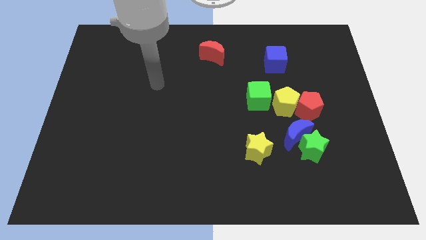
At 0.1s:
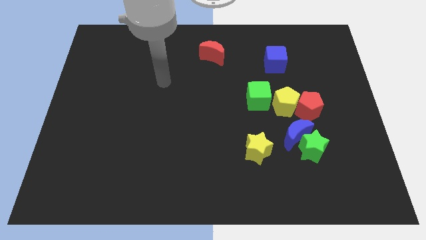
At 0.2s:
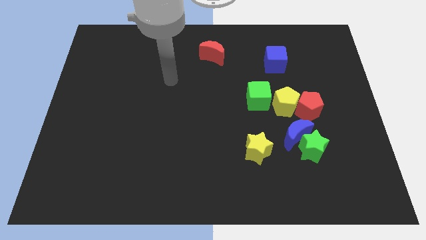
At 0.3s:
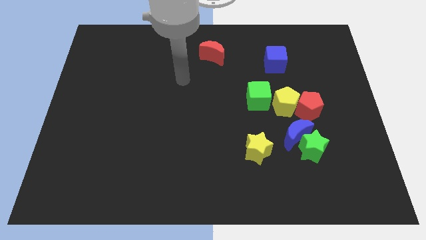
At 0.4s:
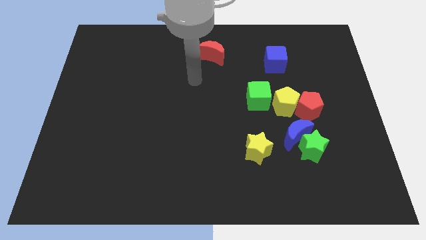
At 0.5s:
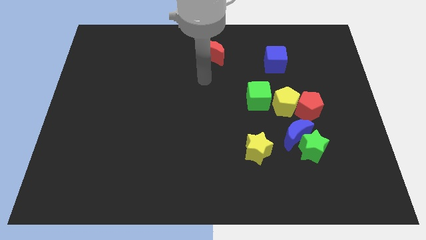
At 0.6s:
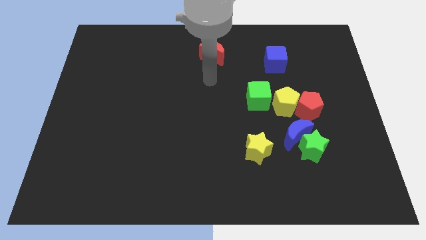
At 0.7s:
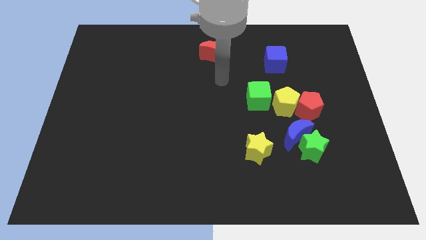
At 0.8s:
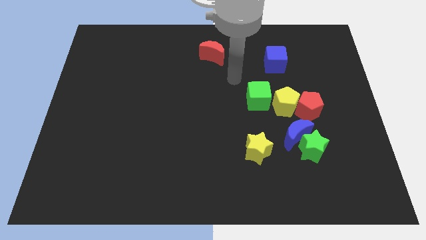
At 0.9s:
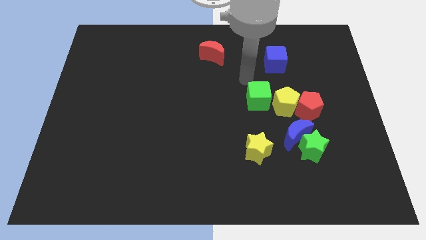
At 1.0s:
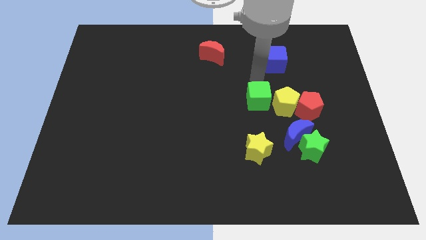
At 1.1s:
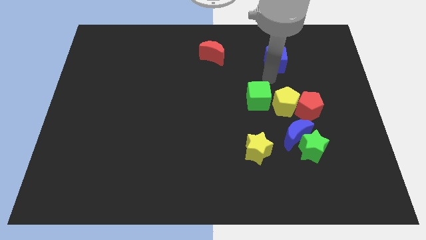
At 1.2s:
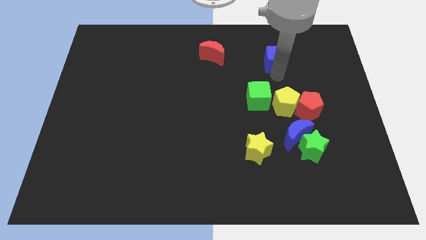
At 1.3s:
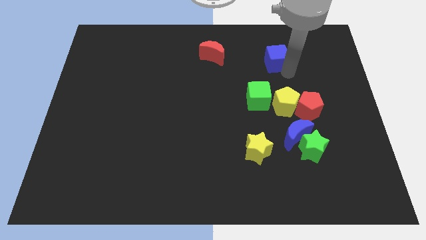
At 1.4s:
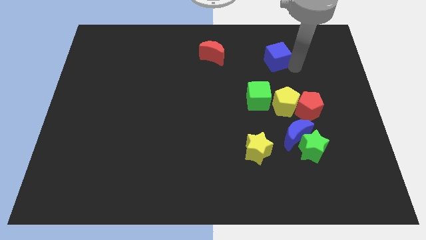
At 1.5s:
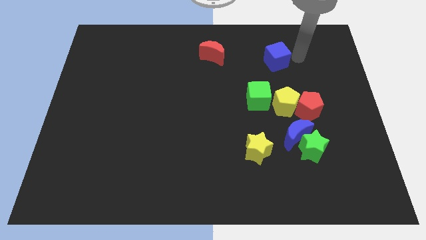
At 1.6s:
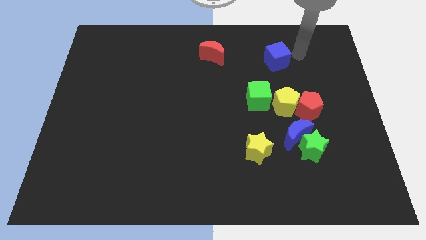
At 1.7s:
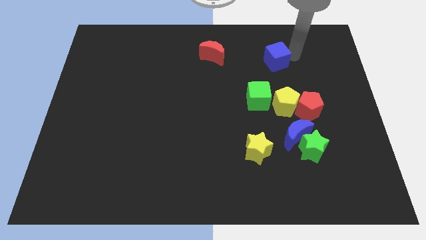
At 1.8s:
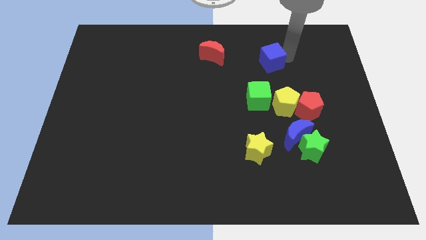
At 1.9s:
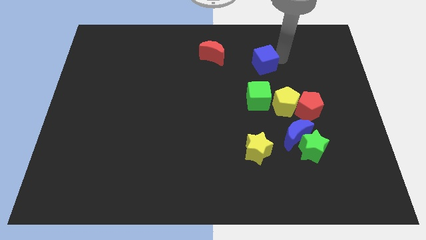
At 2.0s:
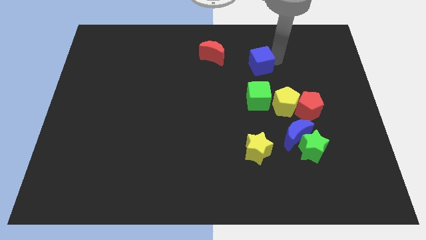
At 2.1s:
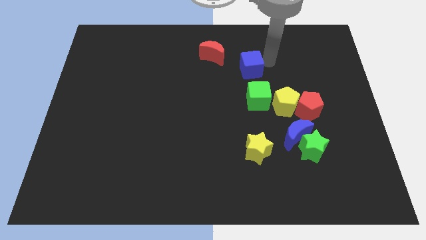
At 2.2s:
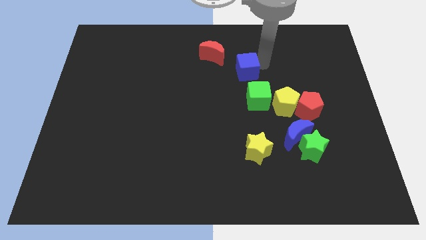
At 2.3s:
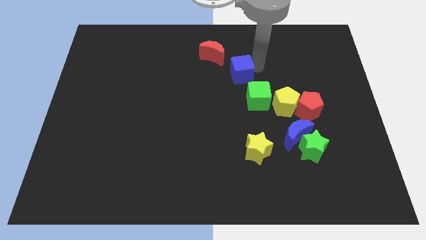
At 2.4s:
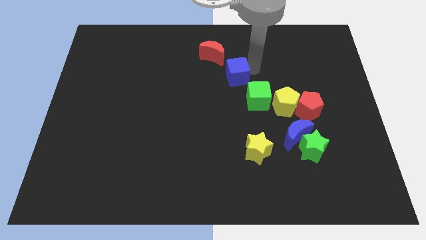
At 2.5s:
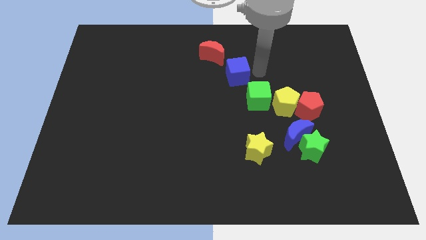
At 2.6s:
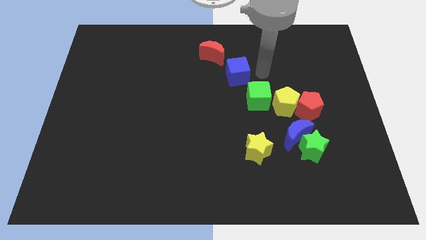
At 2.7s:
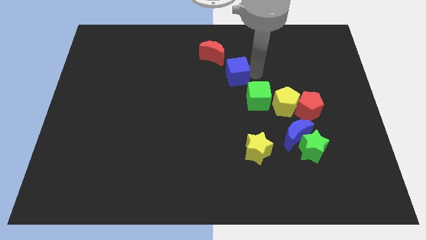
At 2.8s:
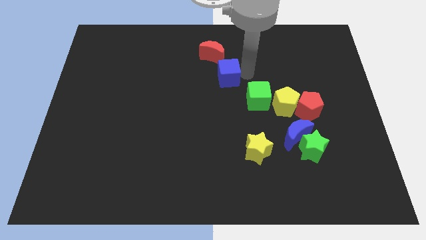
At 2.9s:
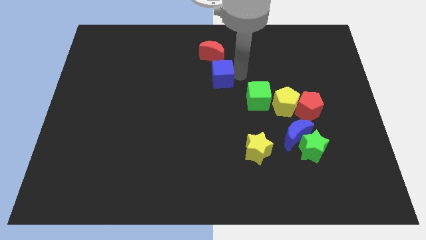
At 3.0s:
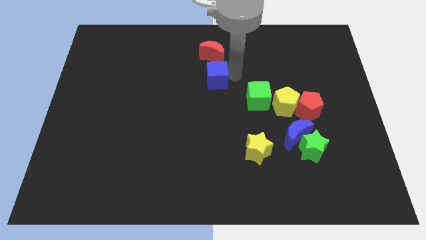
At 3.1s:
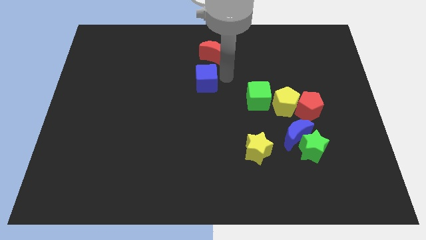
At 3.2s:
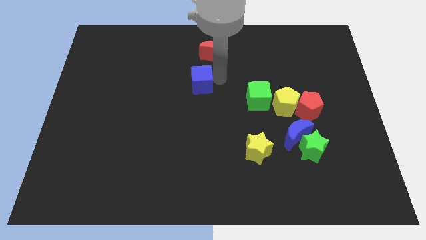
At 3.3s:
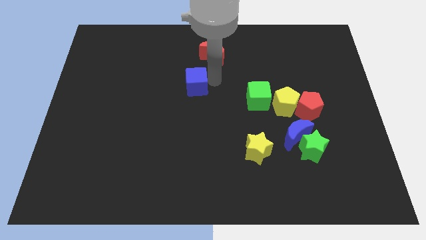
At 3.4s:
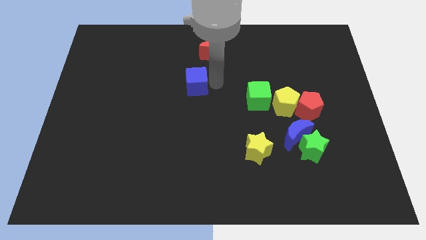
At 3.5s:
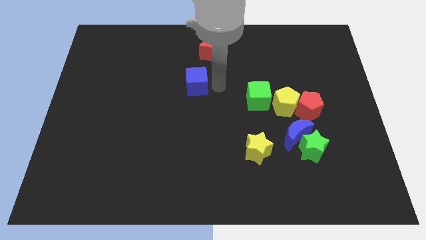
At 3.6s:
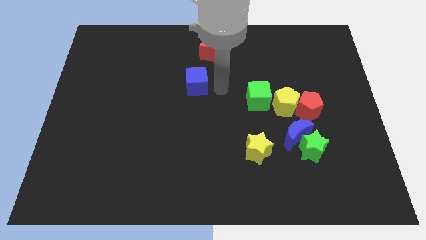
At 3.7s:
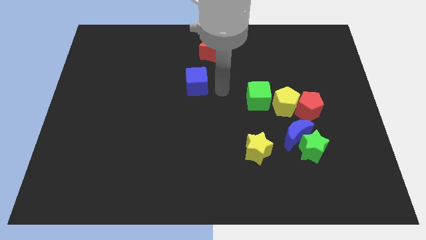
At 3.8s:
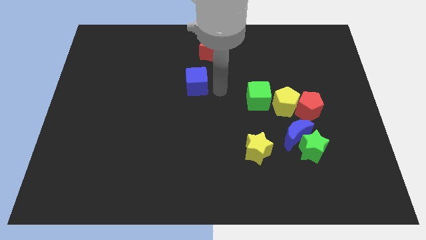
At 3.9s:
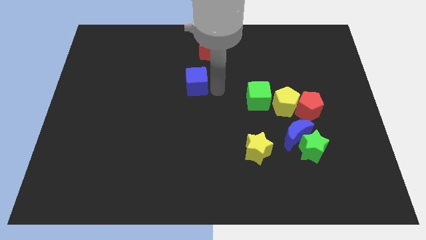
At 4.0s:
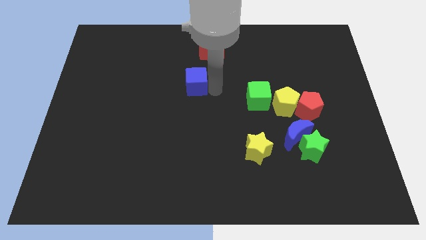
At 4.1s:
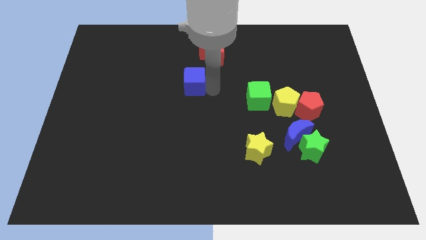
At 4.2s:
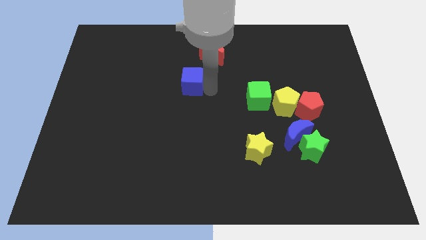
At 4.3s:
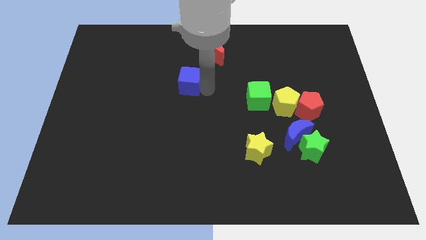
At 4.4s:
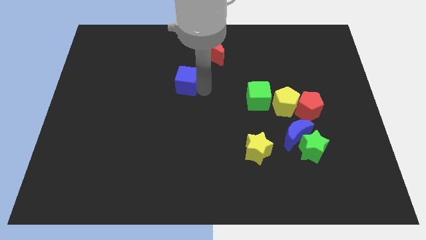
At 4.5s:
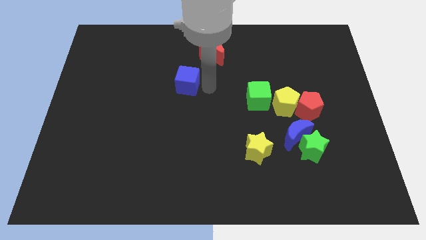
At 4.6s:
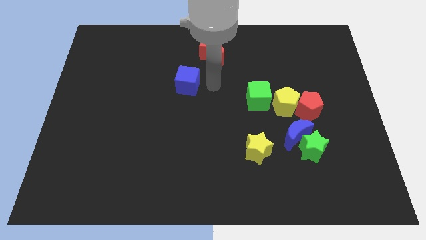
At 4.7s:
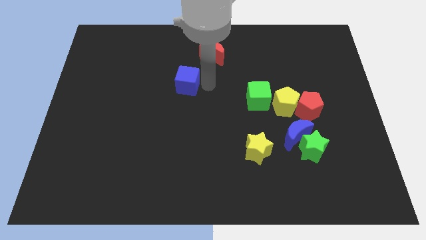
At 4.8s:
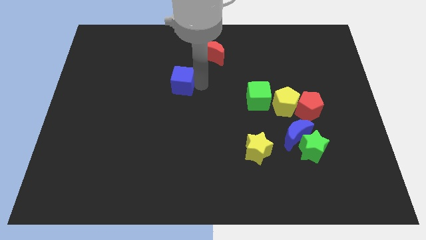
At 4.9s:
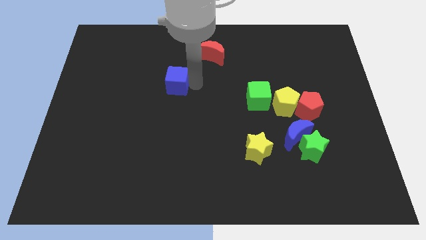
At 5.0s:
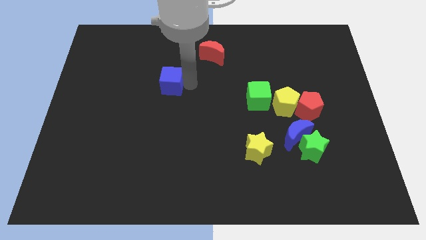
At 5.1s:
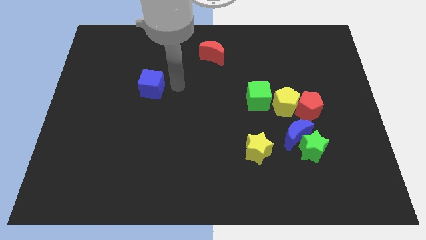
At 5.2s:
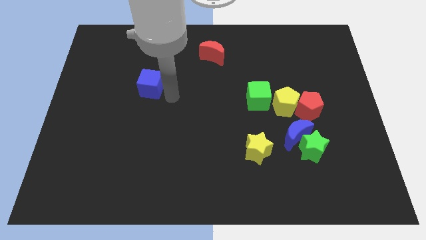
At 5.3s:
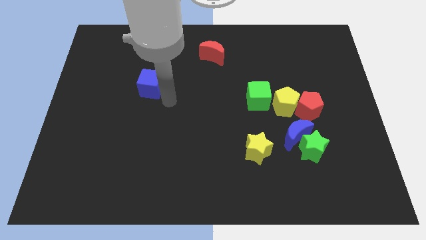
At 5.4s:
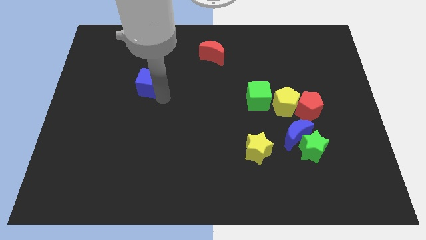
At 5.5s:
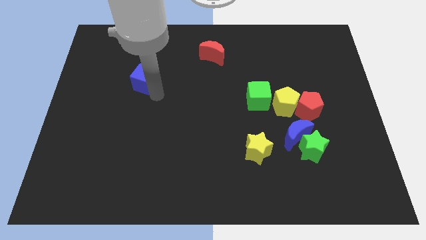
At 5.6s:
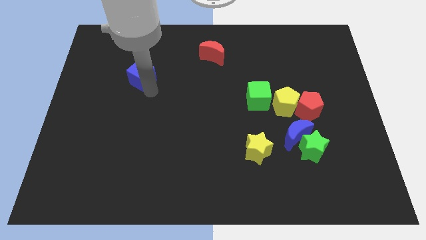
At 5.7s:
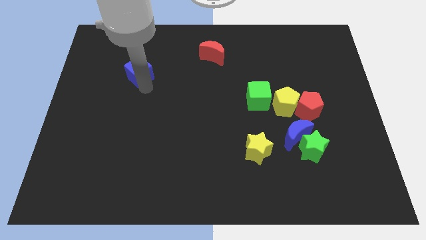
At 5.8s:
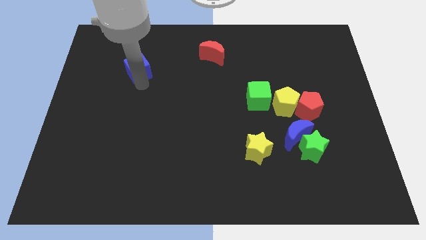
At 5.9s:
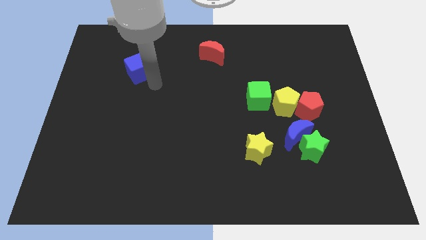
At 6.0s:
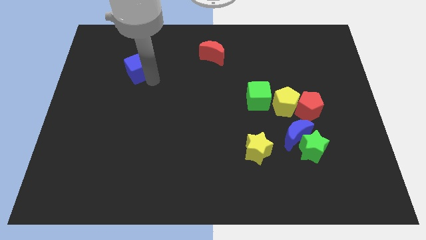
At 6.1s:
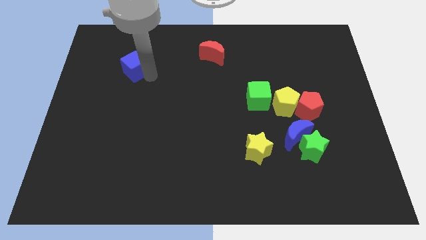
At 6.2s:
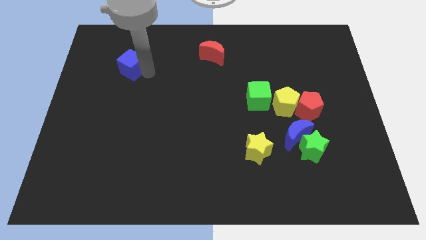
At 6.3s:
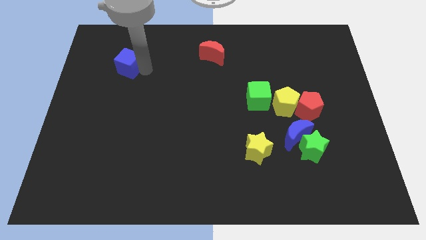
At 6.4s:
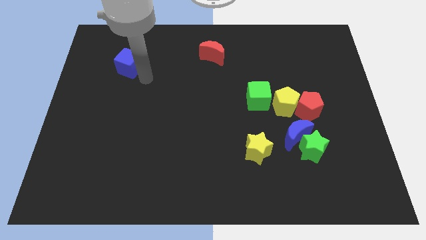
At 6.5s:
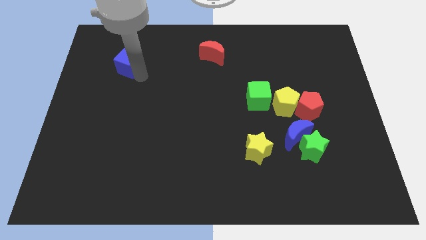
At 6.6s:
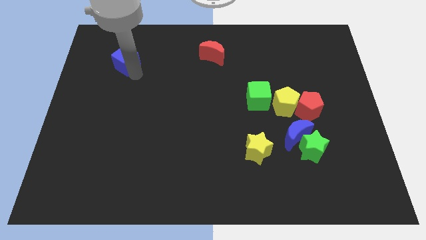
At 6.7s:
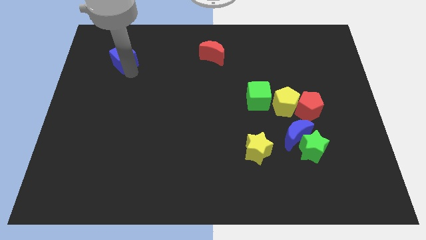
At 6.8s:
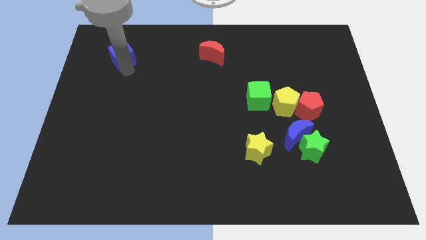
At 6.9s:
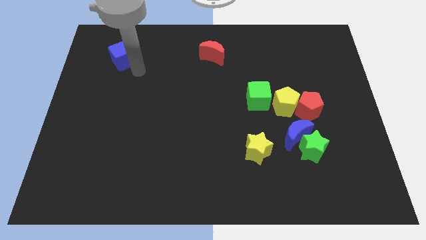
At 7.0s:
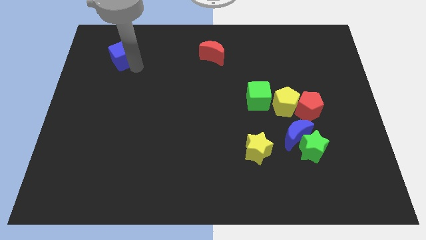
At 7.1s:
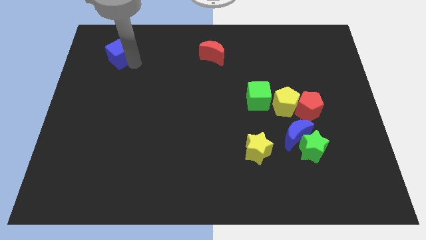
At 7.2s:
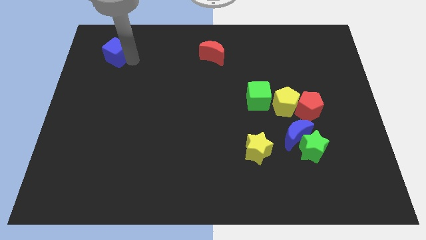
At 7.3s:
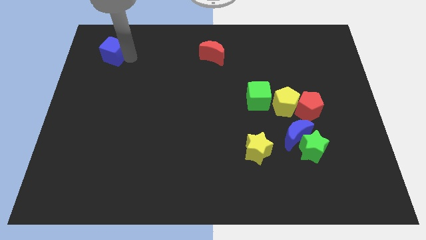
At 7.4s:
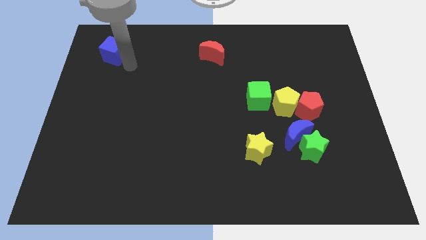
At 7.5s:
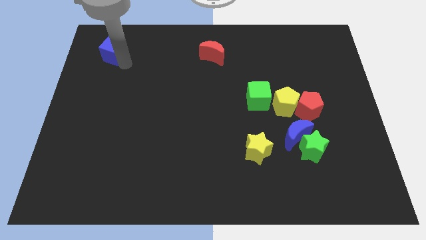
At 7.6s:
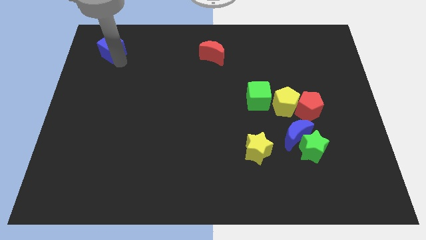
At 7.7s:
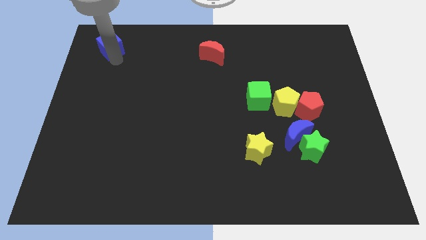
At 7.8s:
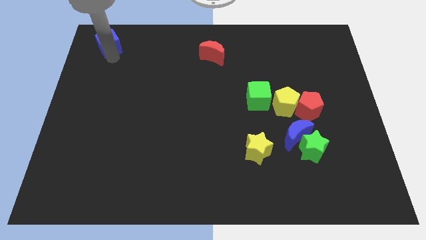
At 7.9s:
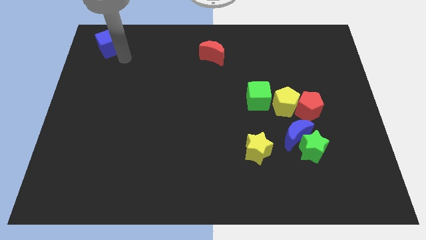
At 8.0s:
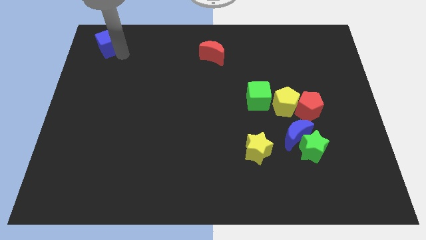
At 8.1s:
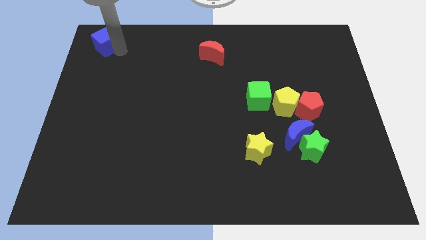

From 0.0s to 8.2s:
slide the blue cube to the top left corner
